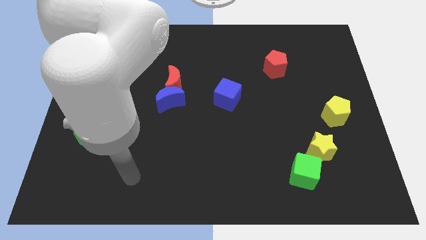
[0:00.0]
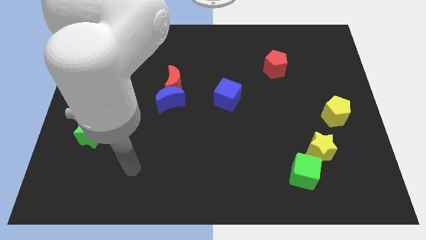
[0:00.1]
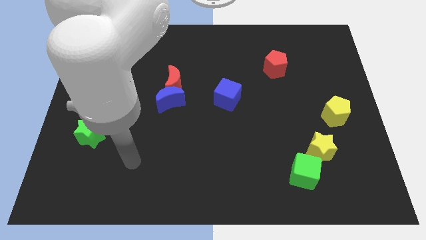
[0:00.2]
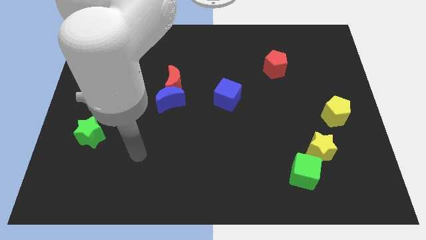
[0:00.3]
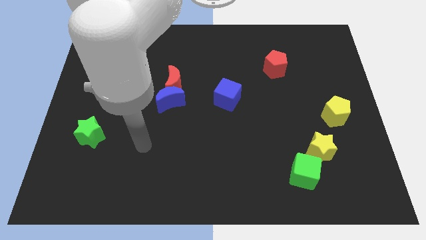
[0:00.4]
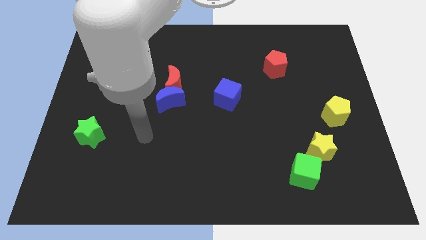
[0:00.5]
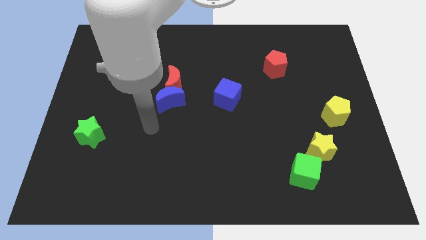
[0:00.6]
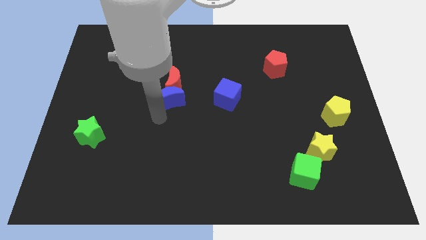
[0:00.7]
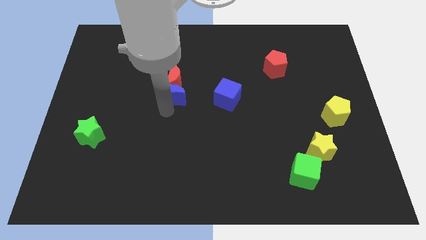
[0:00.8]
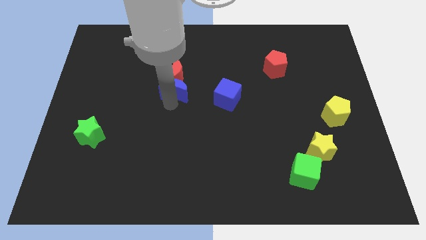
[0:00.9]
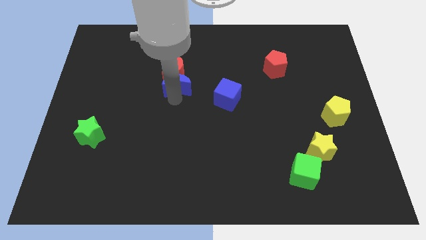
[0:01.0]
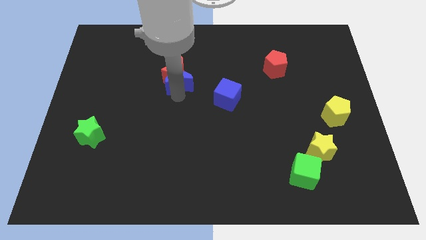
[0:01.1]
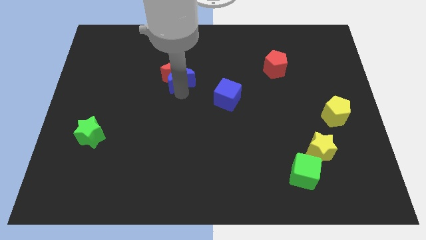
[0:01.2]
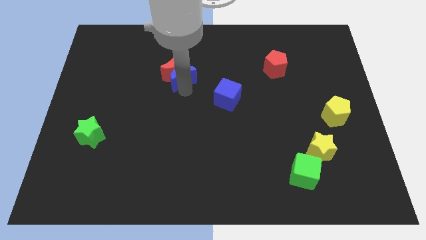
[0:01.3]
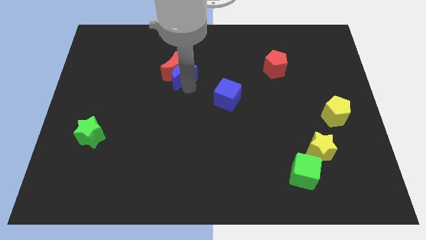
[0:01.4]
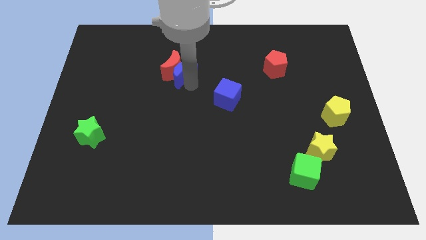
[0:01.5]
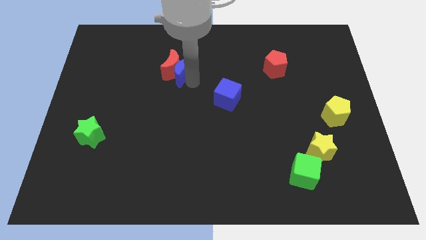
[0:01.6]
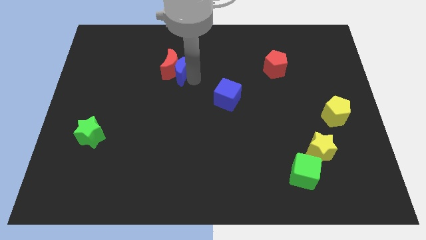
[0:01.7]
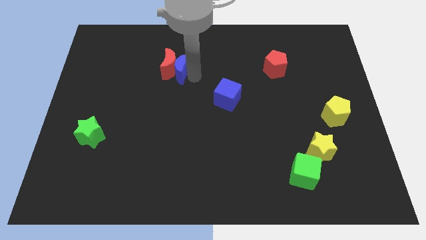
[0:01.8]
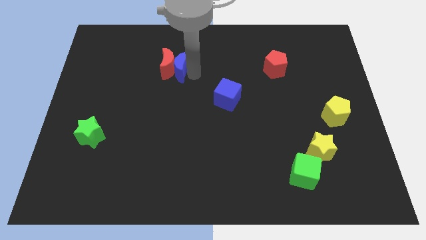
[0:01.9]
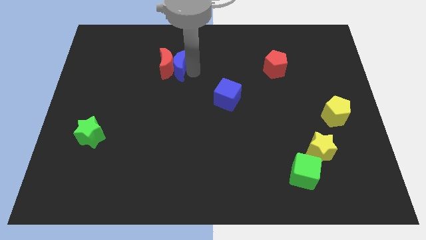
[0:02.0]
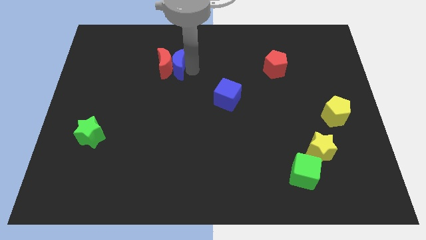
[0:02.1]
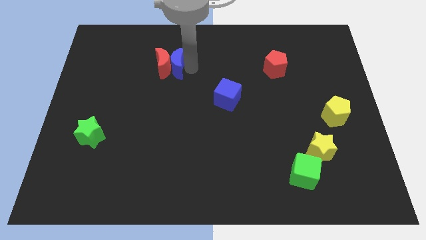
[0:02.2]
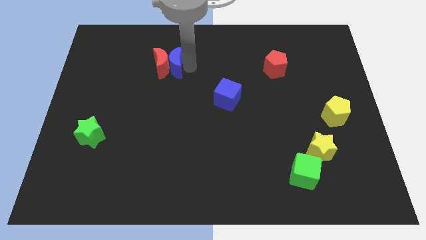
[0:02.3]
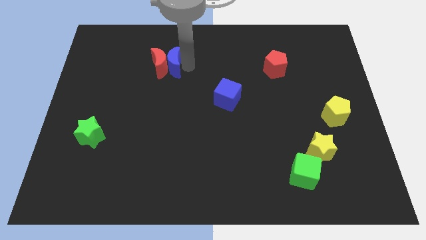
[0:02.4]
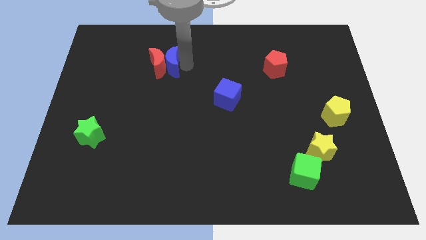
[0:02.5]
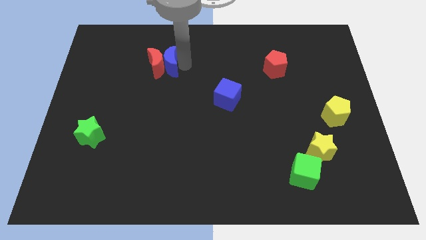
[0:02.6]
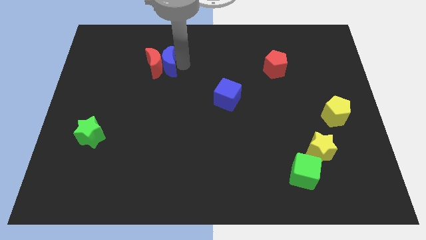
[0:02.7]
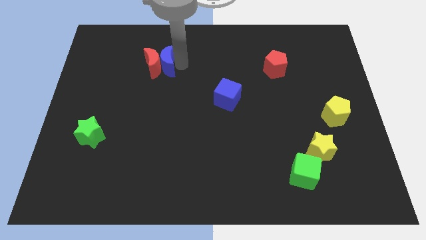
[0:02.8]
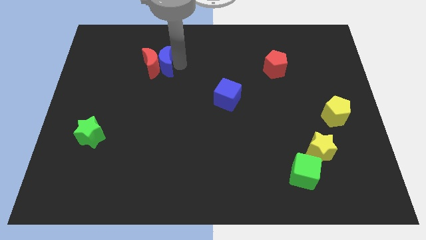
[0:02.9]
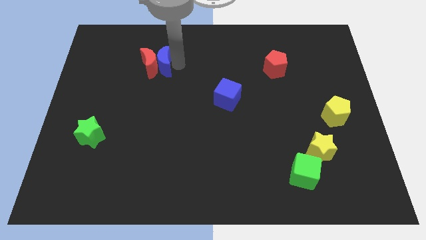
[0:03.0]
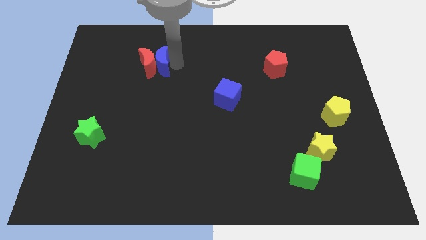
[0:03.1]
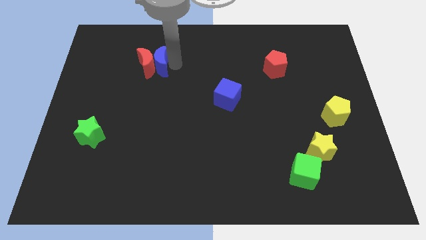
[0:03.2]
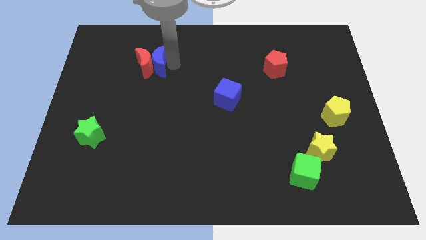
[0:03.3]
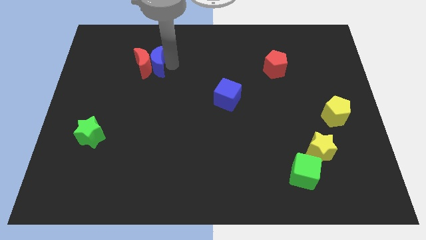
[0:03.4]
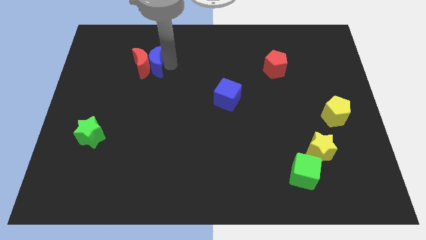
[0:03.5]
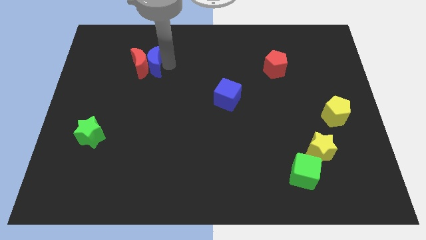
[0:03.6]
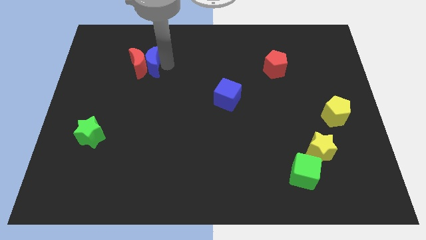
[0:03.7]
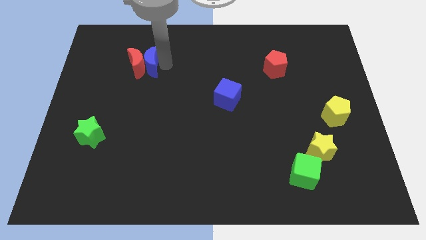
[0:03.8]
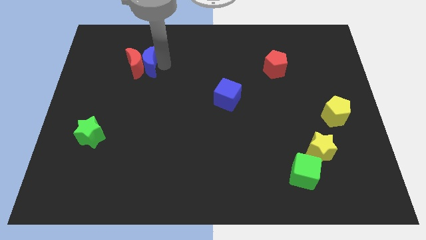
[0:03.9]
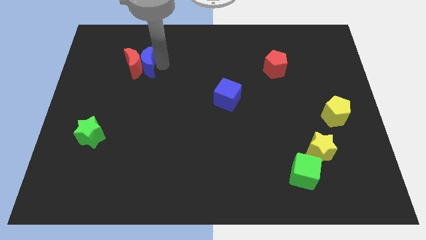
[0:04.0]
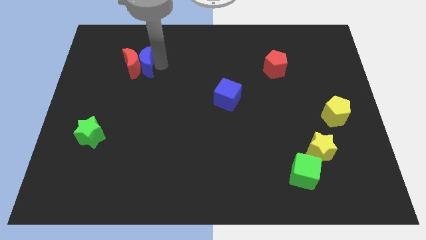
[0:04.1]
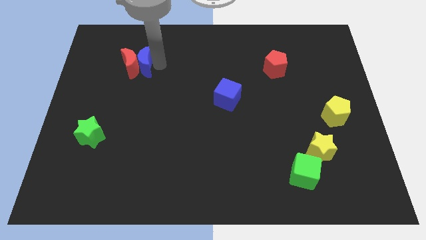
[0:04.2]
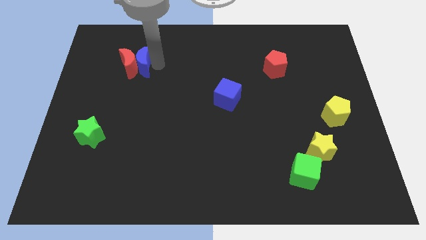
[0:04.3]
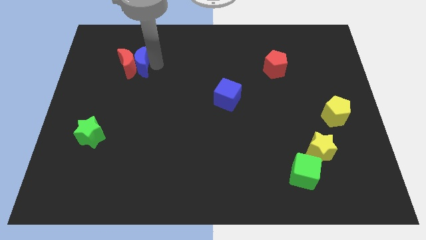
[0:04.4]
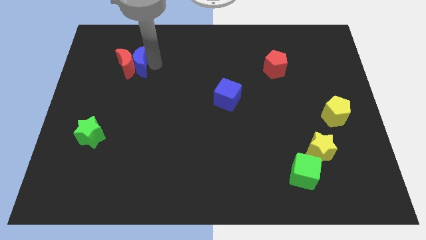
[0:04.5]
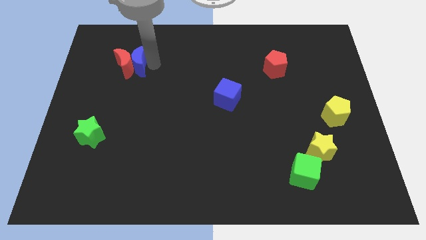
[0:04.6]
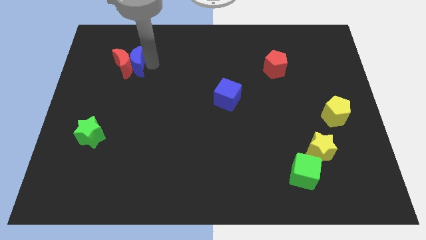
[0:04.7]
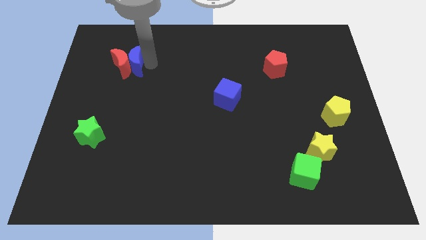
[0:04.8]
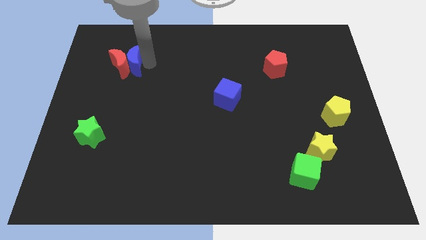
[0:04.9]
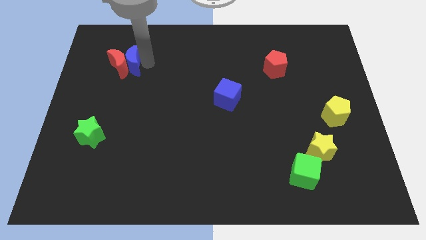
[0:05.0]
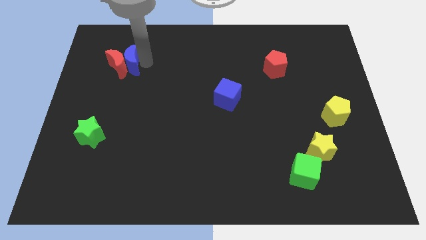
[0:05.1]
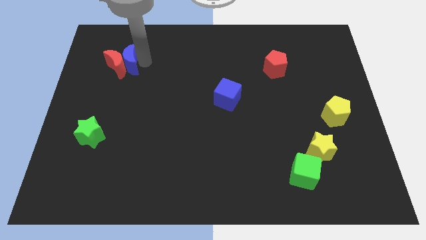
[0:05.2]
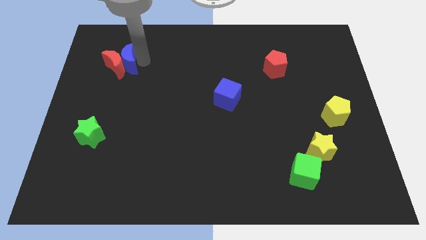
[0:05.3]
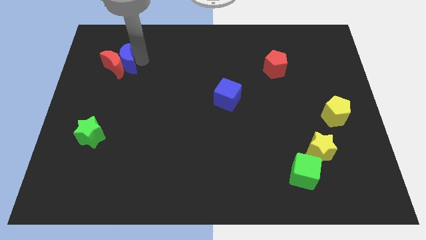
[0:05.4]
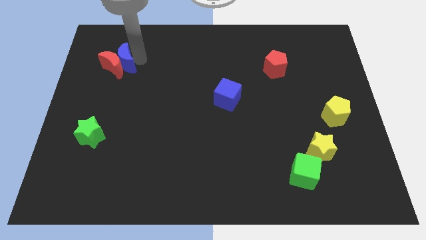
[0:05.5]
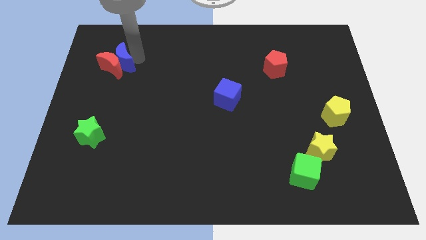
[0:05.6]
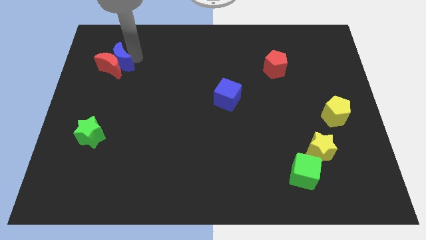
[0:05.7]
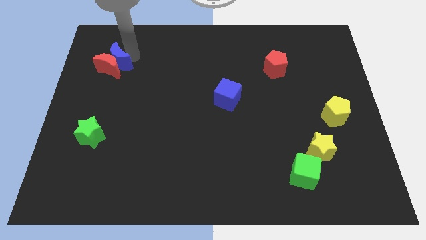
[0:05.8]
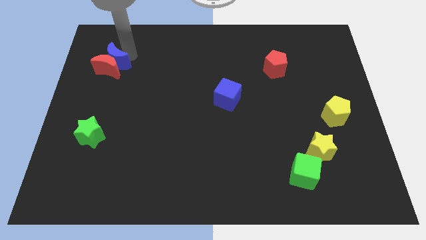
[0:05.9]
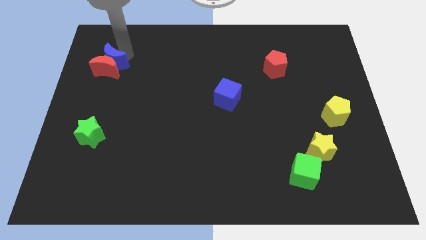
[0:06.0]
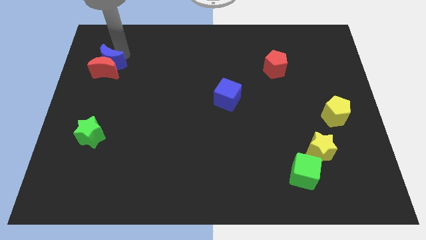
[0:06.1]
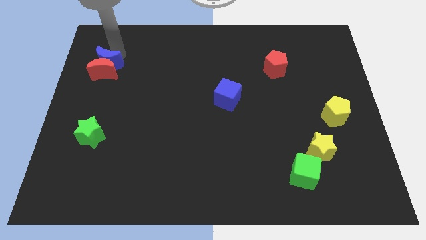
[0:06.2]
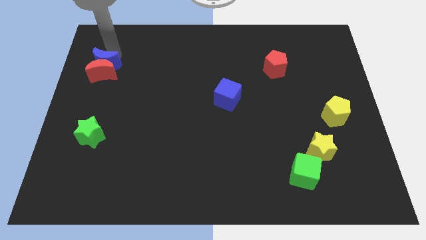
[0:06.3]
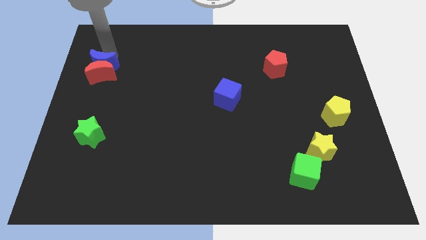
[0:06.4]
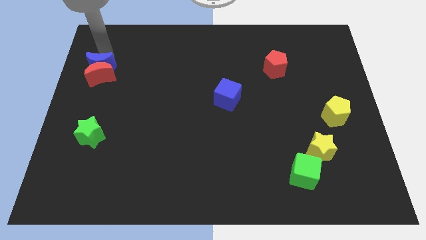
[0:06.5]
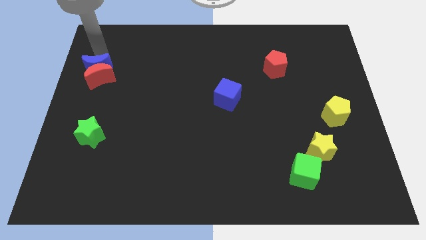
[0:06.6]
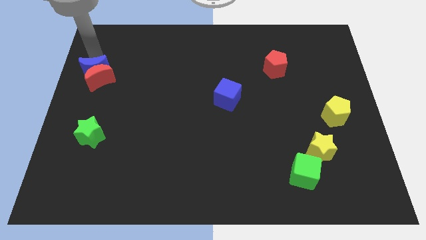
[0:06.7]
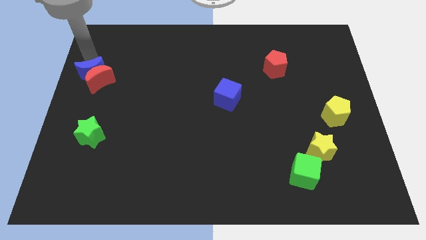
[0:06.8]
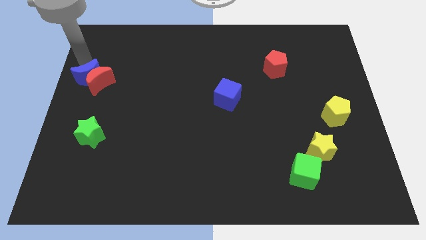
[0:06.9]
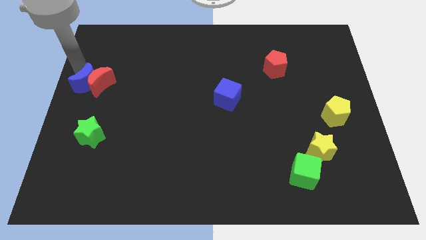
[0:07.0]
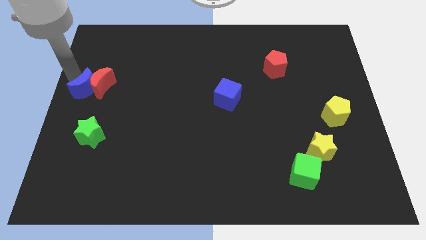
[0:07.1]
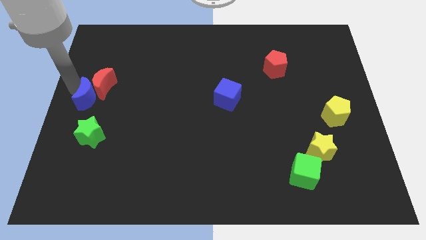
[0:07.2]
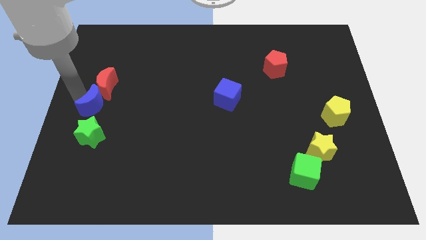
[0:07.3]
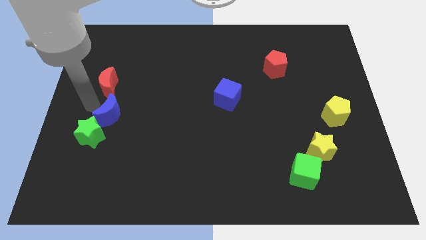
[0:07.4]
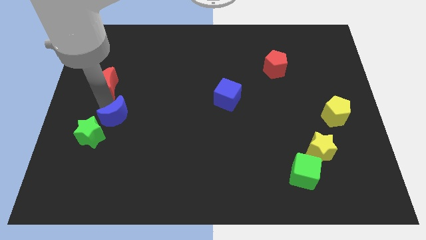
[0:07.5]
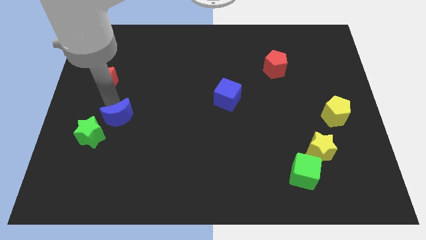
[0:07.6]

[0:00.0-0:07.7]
pull the red moon apart from the blue moon

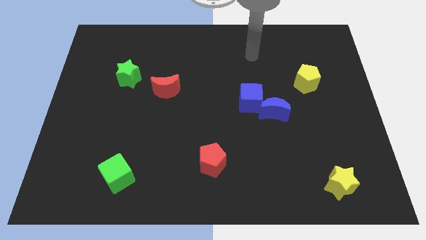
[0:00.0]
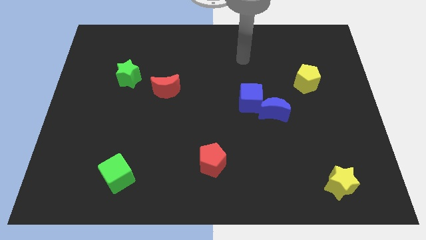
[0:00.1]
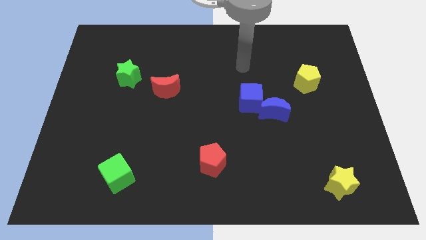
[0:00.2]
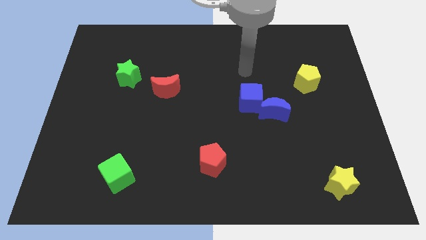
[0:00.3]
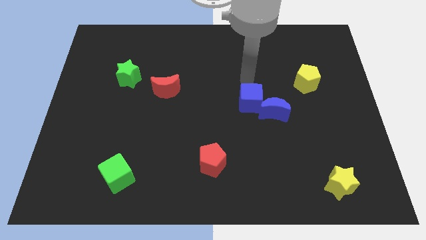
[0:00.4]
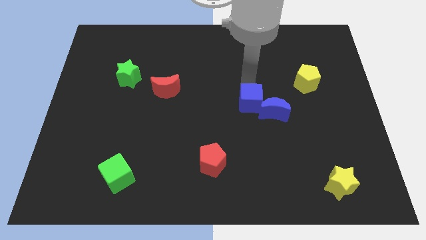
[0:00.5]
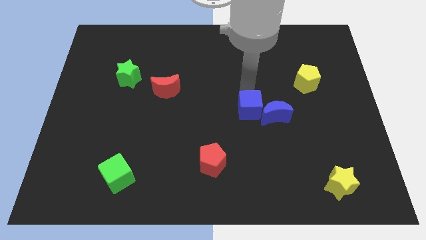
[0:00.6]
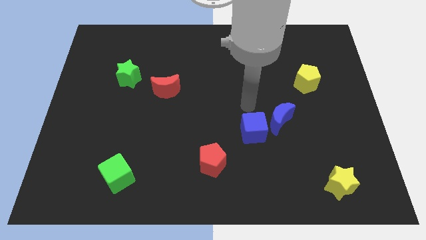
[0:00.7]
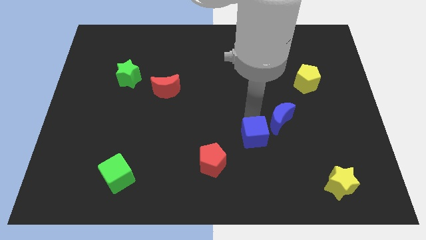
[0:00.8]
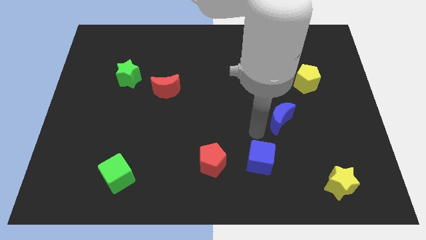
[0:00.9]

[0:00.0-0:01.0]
separate the blue moon from the blue cube

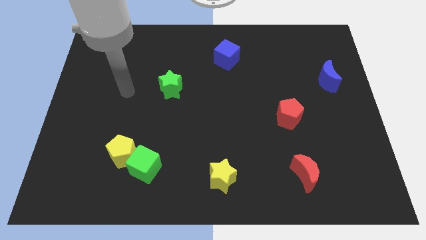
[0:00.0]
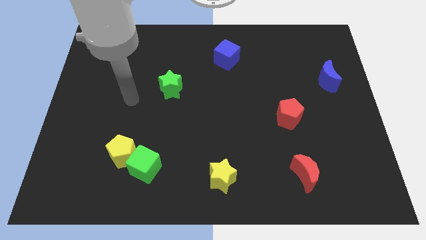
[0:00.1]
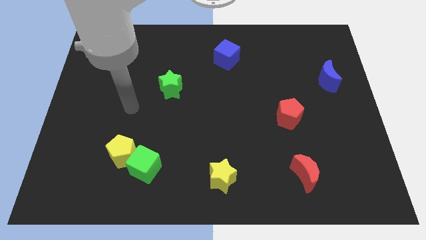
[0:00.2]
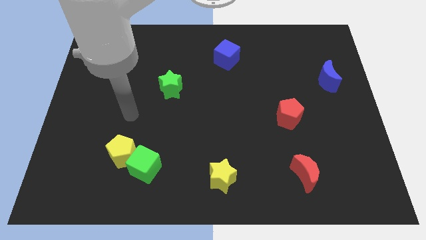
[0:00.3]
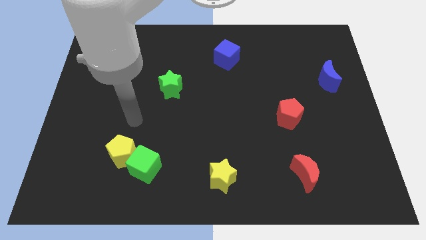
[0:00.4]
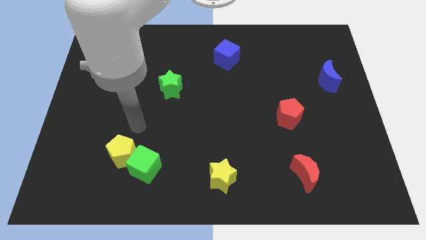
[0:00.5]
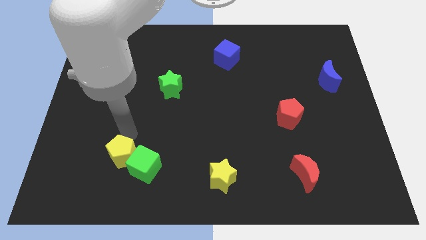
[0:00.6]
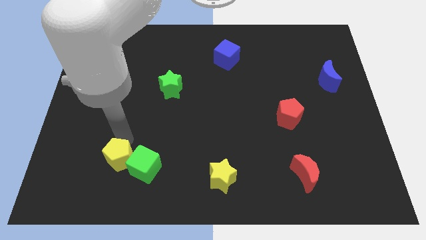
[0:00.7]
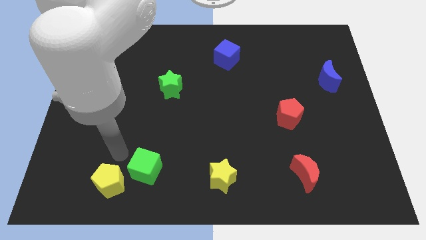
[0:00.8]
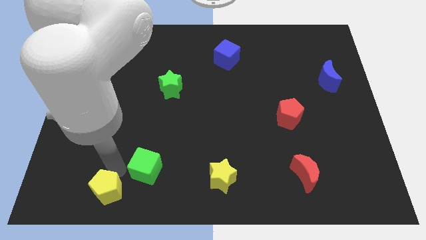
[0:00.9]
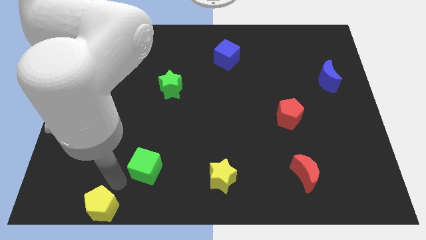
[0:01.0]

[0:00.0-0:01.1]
pull the green cube apart from the yellow pentagon
